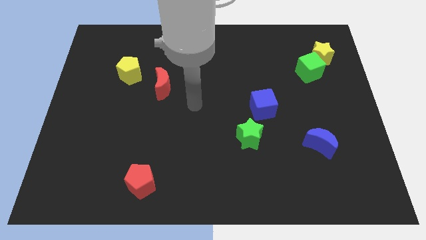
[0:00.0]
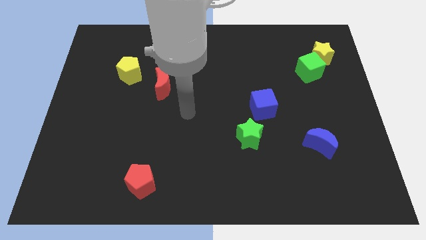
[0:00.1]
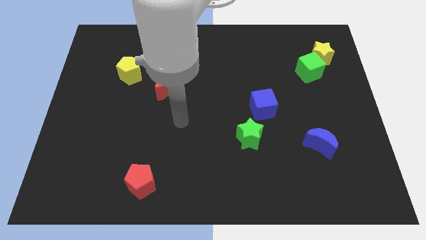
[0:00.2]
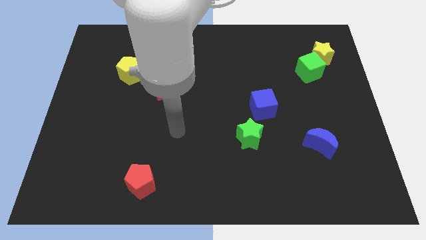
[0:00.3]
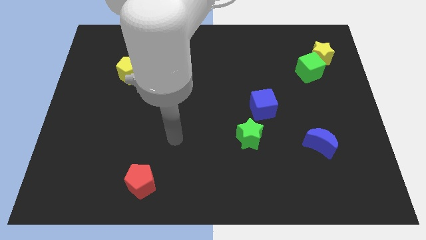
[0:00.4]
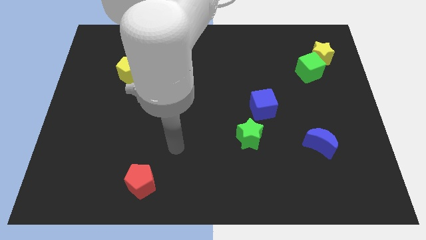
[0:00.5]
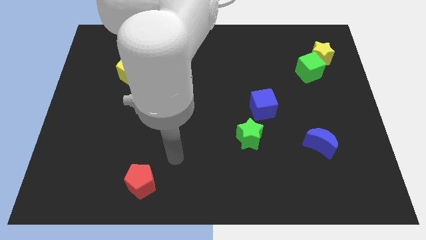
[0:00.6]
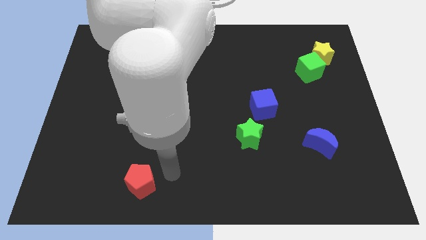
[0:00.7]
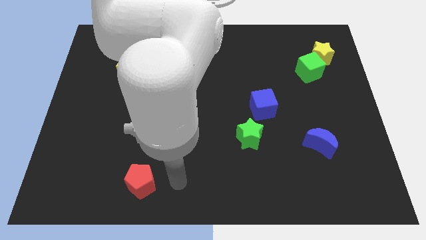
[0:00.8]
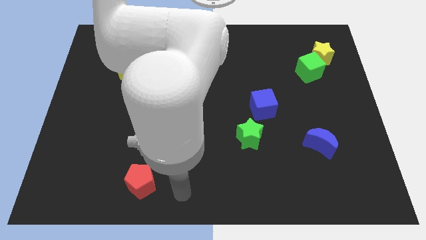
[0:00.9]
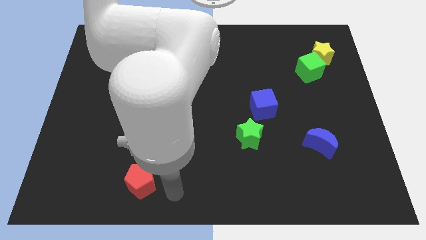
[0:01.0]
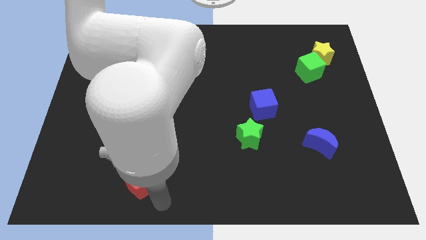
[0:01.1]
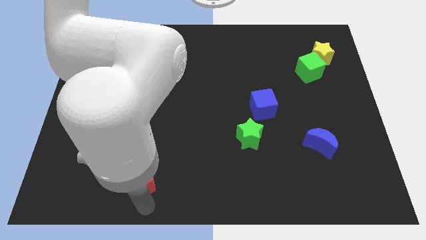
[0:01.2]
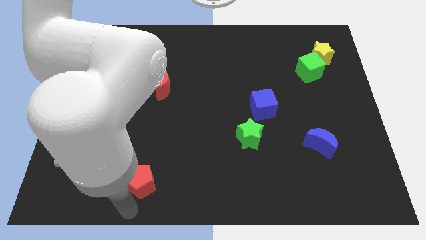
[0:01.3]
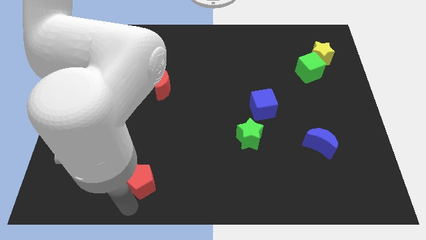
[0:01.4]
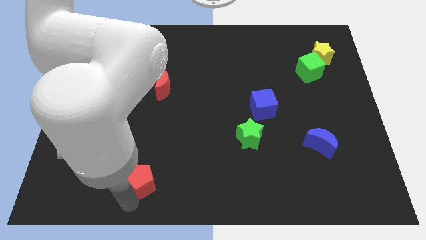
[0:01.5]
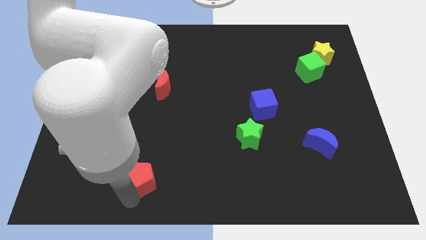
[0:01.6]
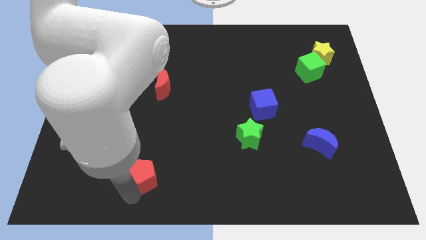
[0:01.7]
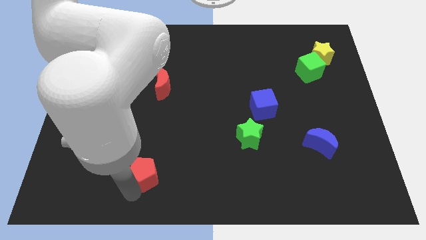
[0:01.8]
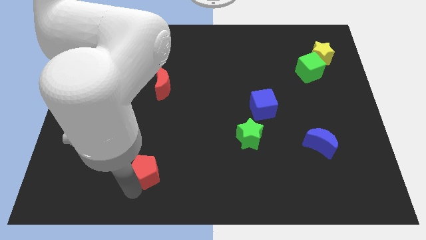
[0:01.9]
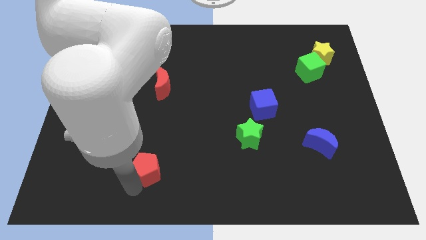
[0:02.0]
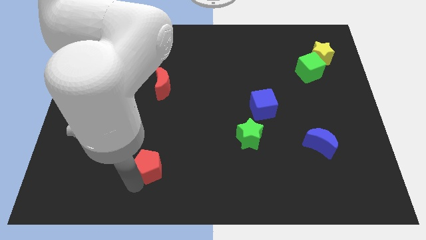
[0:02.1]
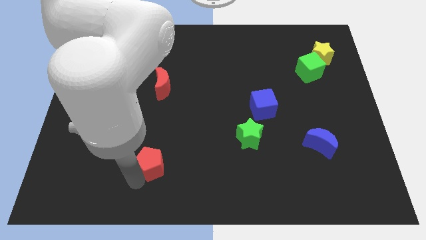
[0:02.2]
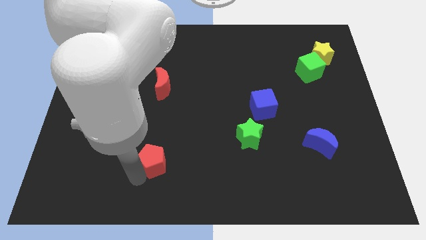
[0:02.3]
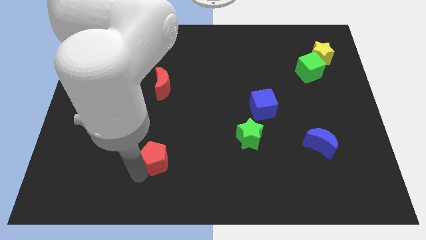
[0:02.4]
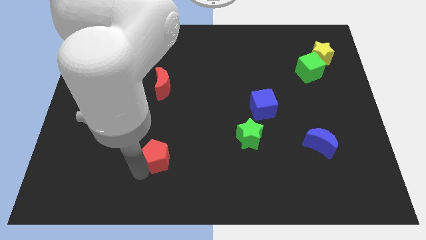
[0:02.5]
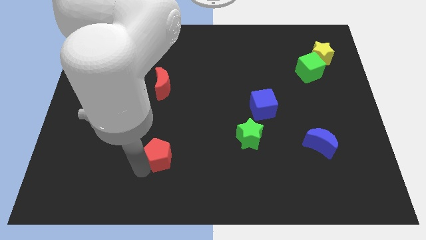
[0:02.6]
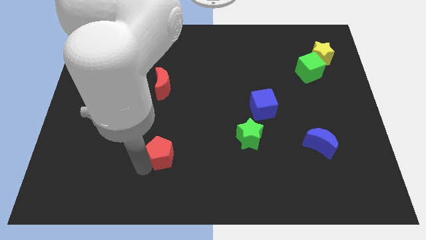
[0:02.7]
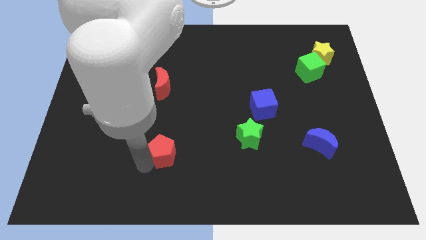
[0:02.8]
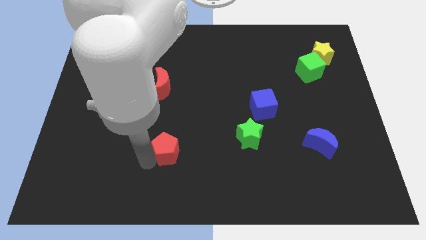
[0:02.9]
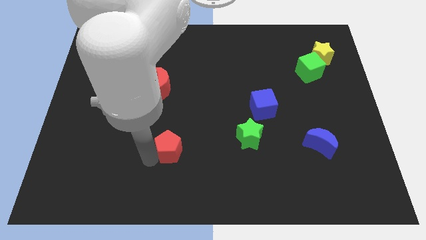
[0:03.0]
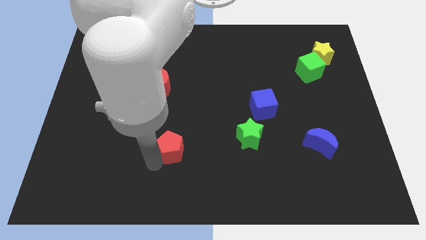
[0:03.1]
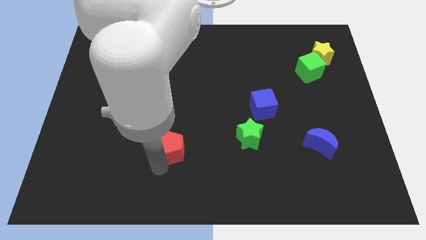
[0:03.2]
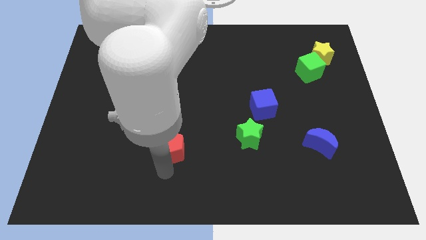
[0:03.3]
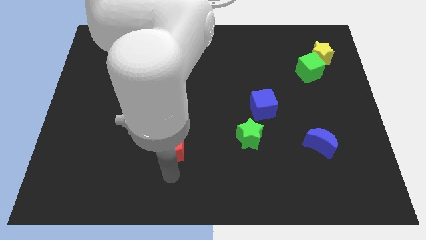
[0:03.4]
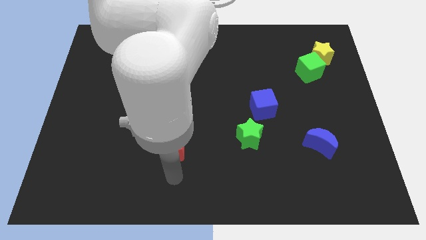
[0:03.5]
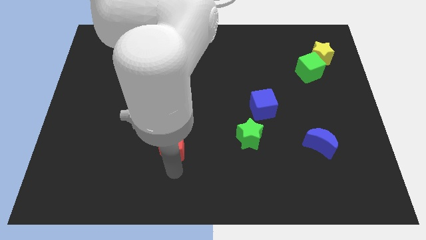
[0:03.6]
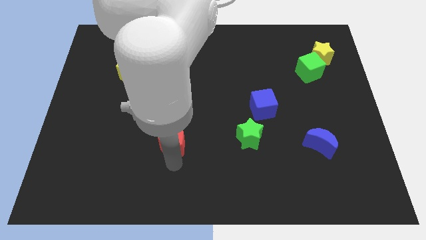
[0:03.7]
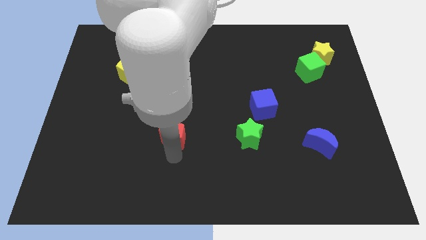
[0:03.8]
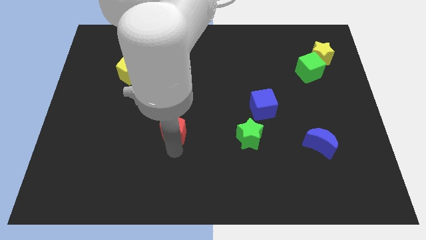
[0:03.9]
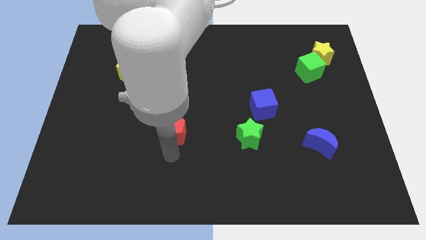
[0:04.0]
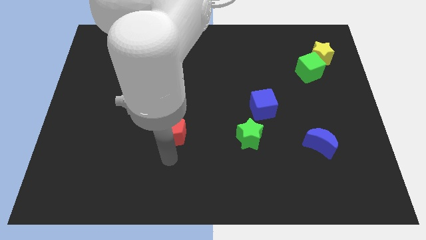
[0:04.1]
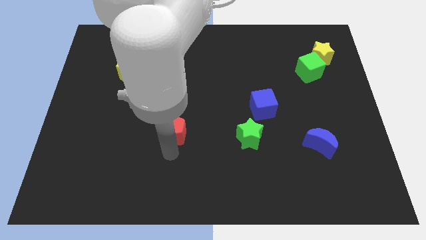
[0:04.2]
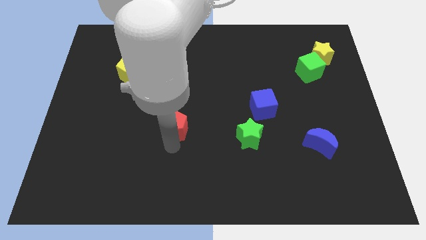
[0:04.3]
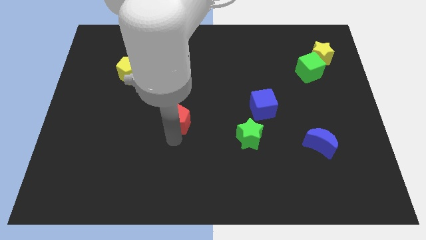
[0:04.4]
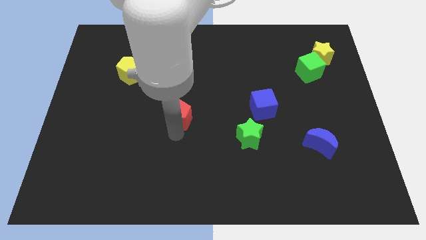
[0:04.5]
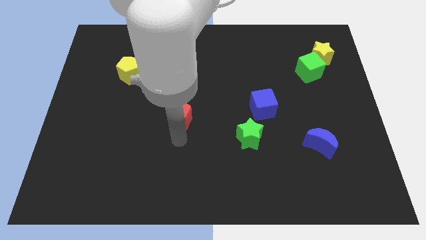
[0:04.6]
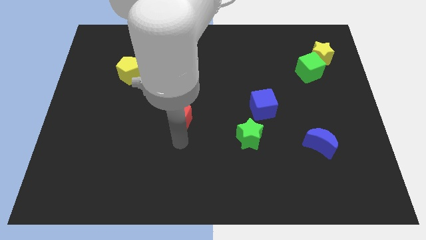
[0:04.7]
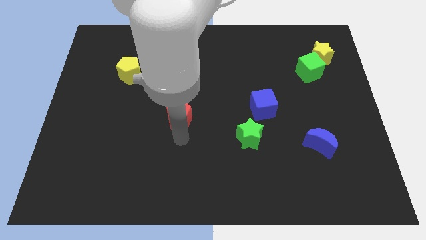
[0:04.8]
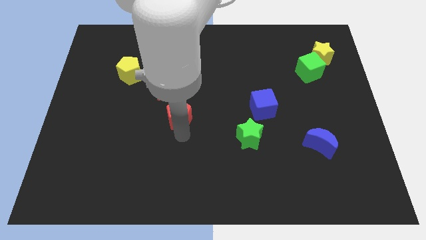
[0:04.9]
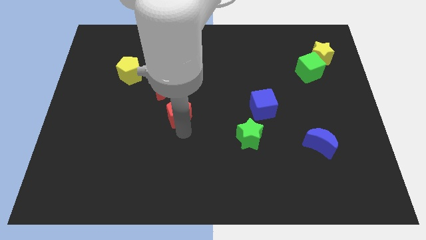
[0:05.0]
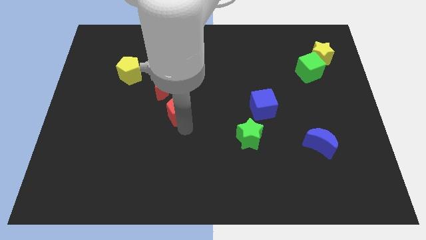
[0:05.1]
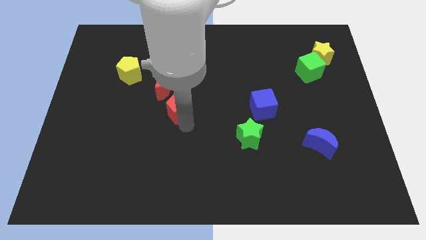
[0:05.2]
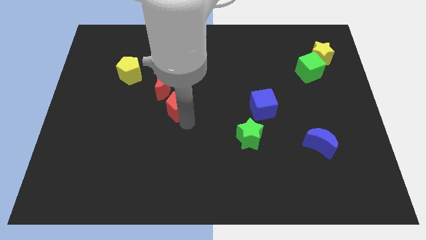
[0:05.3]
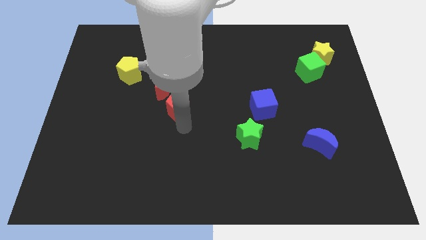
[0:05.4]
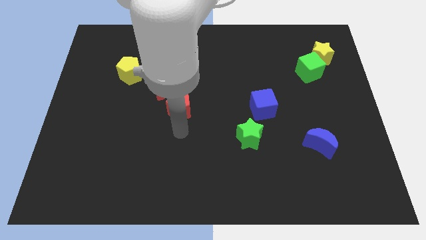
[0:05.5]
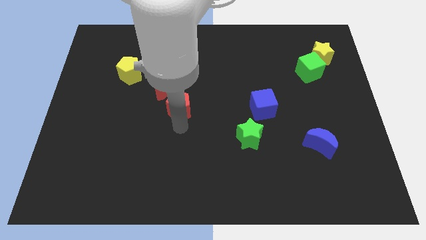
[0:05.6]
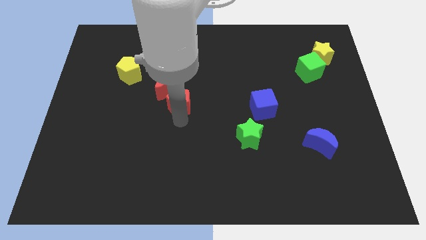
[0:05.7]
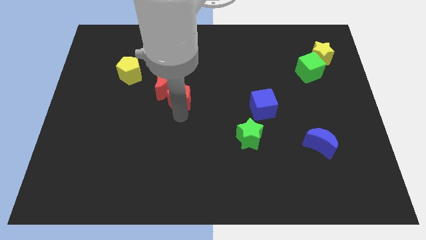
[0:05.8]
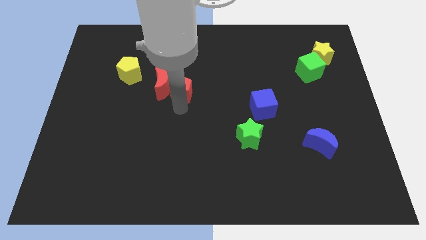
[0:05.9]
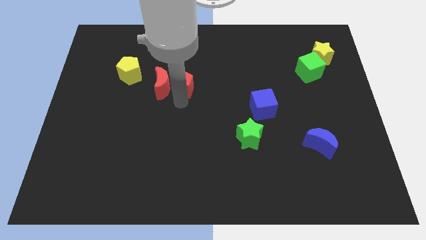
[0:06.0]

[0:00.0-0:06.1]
move the red pentagon to the top right of the red moon
